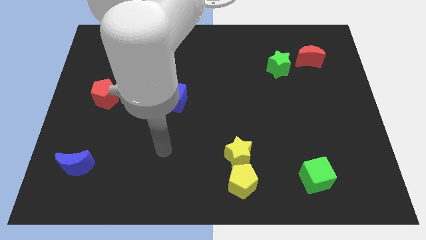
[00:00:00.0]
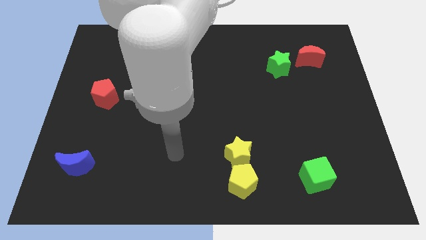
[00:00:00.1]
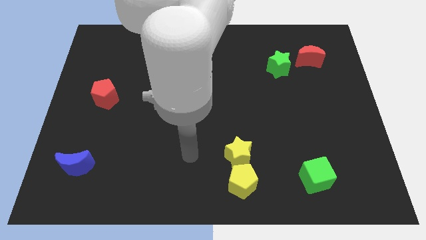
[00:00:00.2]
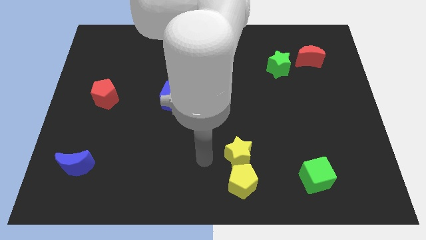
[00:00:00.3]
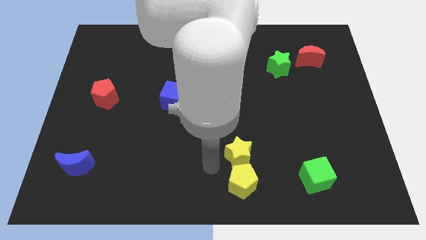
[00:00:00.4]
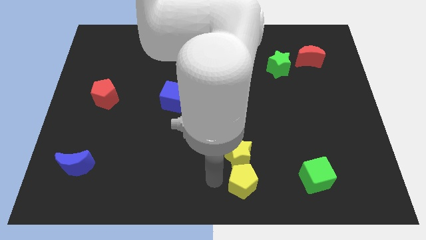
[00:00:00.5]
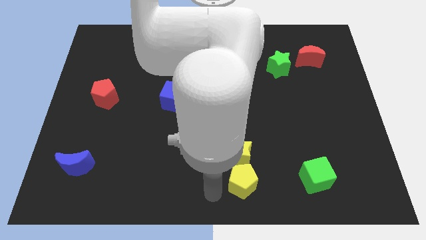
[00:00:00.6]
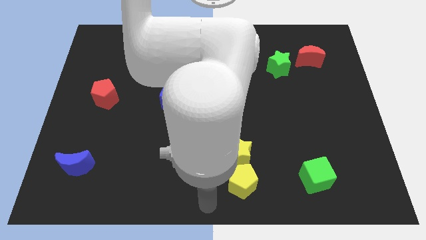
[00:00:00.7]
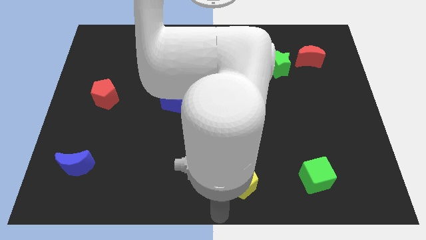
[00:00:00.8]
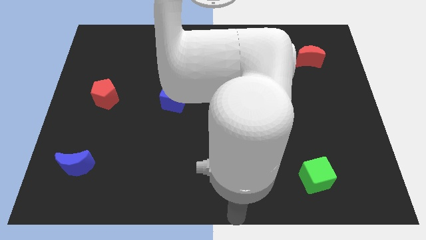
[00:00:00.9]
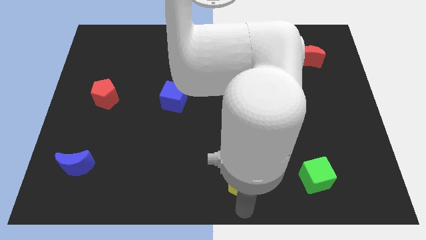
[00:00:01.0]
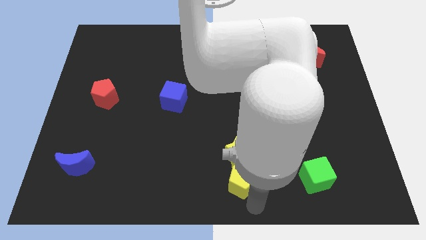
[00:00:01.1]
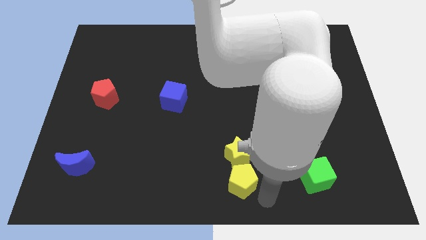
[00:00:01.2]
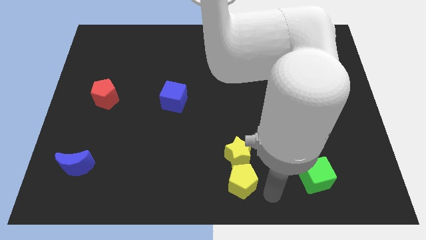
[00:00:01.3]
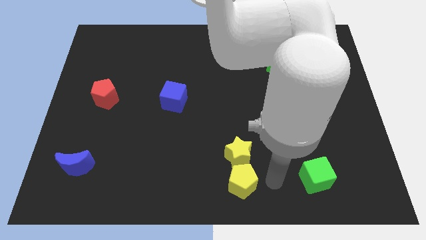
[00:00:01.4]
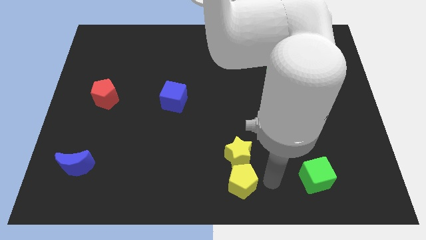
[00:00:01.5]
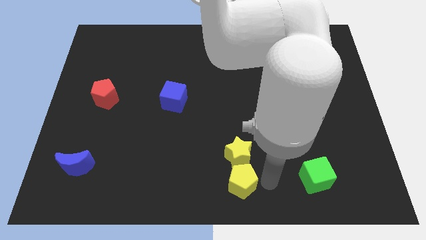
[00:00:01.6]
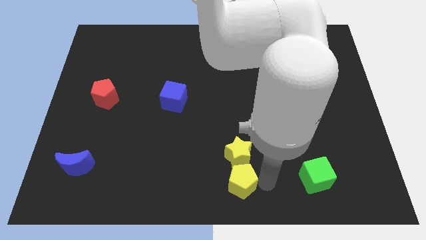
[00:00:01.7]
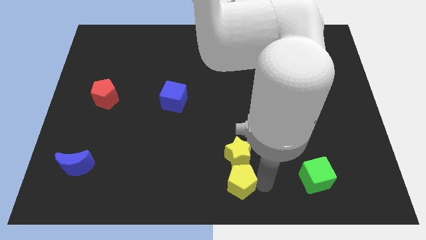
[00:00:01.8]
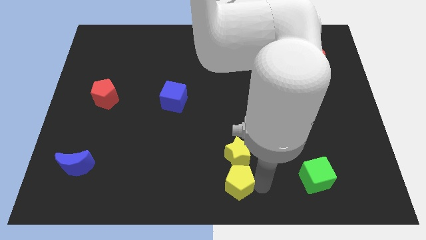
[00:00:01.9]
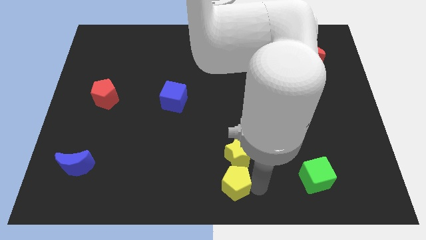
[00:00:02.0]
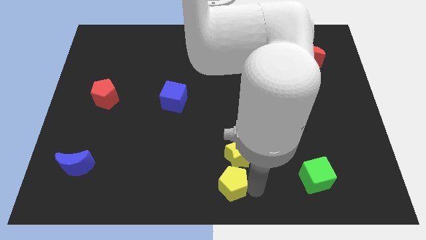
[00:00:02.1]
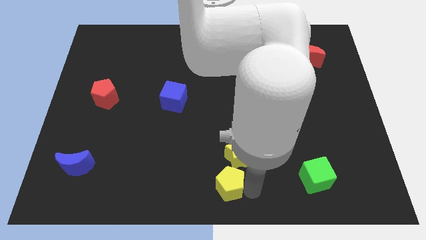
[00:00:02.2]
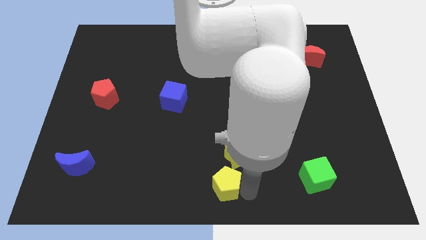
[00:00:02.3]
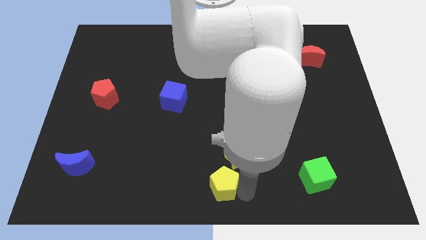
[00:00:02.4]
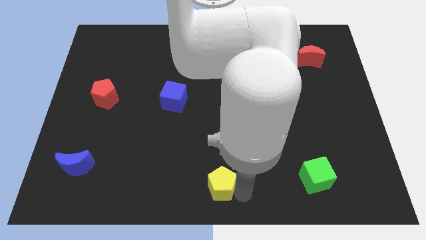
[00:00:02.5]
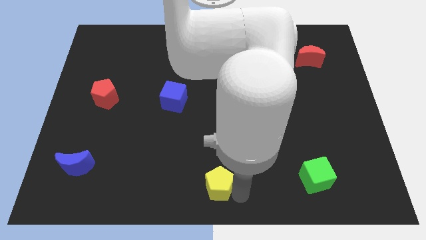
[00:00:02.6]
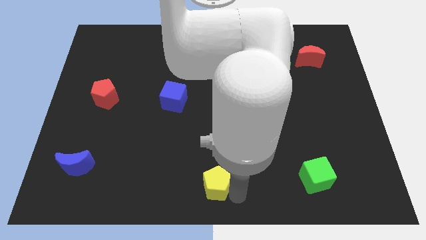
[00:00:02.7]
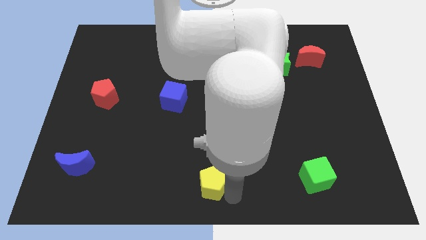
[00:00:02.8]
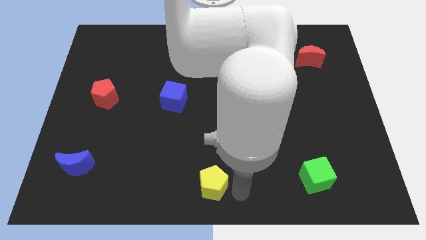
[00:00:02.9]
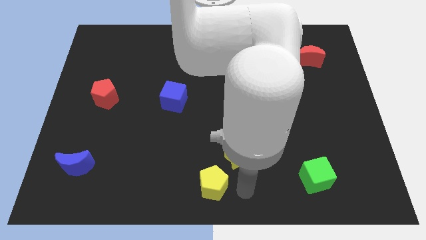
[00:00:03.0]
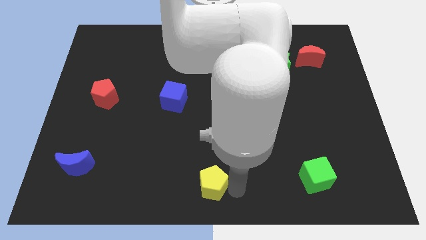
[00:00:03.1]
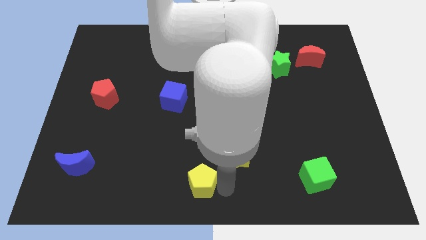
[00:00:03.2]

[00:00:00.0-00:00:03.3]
slightly push the yellow pentagon left

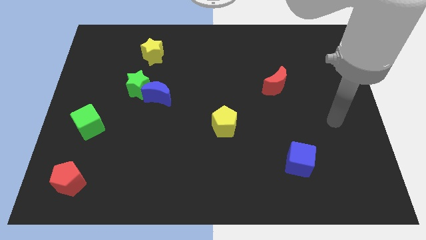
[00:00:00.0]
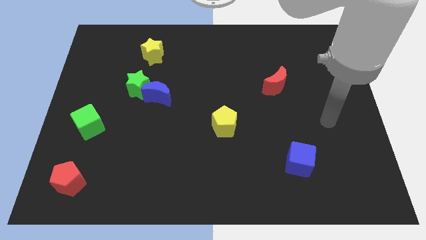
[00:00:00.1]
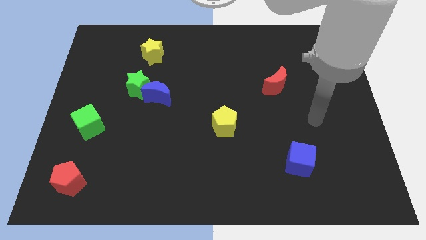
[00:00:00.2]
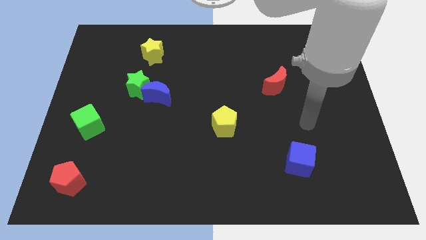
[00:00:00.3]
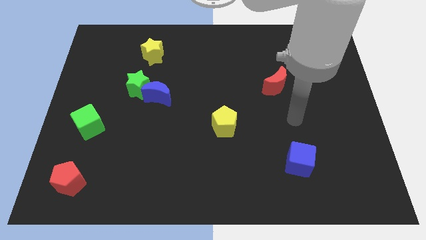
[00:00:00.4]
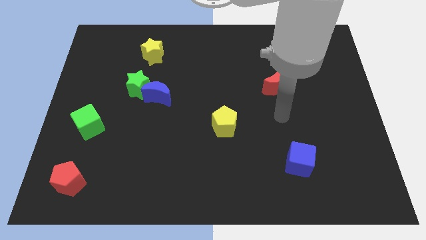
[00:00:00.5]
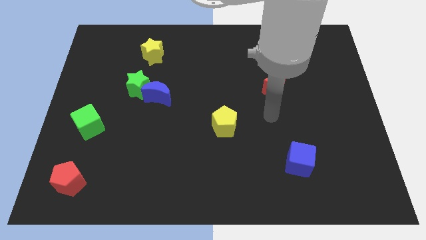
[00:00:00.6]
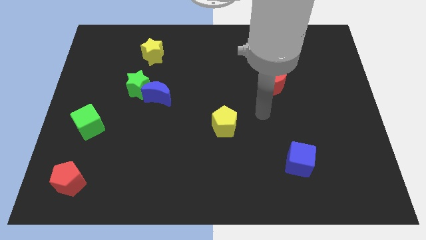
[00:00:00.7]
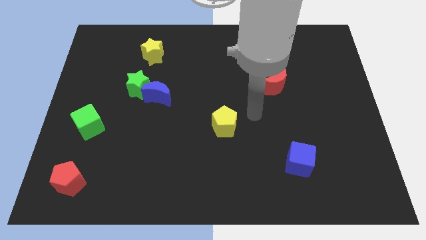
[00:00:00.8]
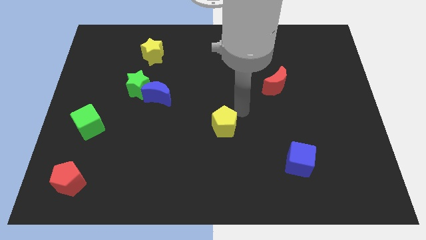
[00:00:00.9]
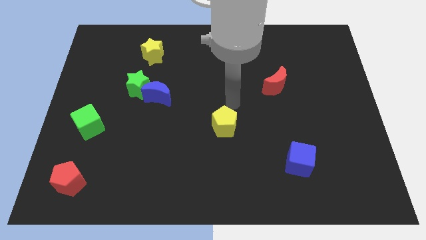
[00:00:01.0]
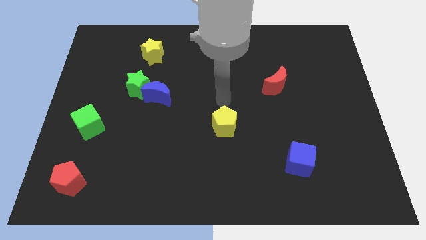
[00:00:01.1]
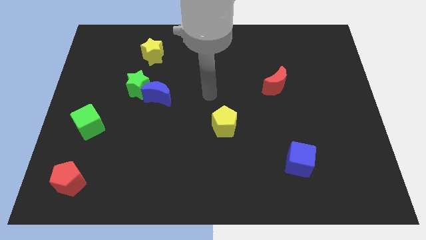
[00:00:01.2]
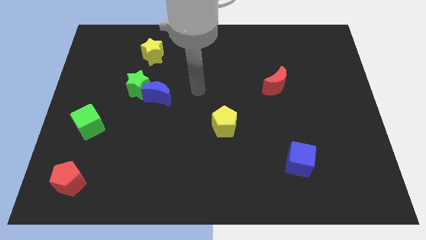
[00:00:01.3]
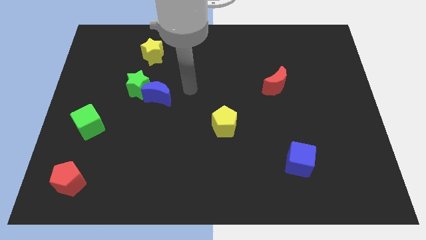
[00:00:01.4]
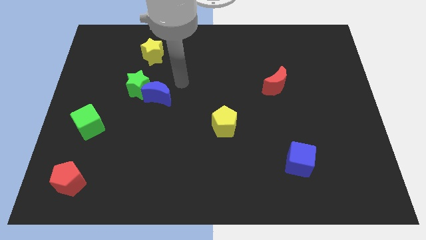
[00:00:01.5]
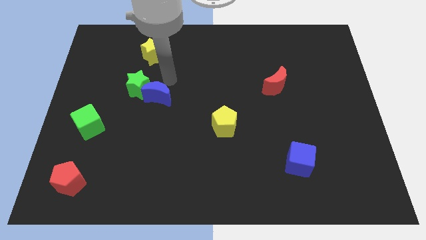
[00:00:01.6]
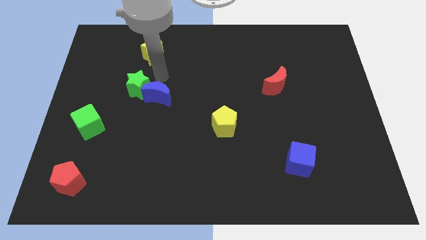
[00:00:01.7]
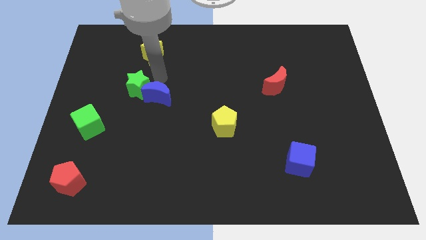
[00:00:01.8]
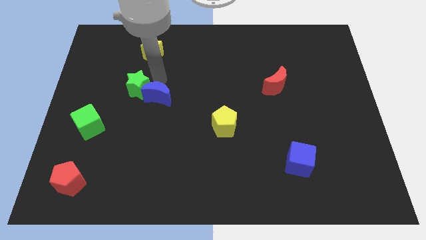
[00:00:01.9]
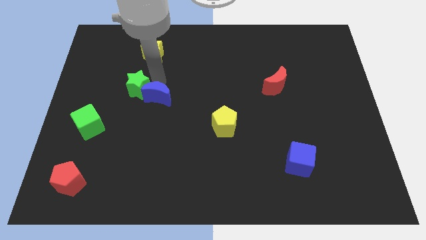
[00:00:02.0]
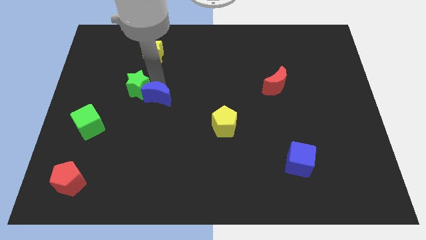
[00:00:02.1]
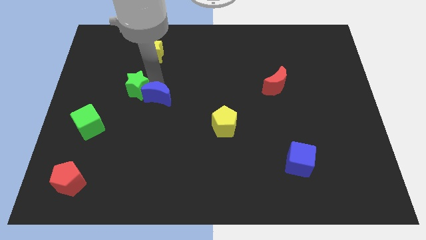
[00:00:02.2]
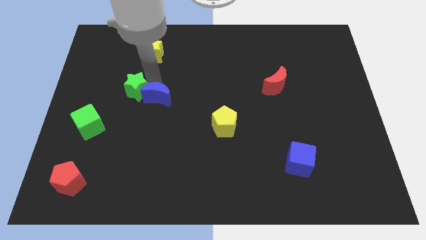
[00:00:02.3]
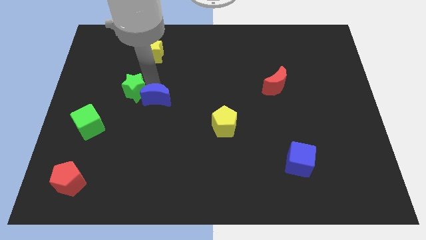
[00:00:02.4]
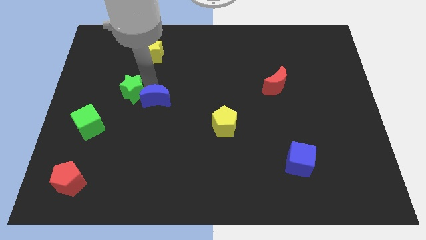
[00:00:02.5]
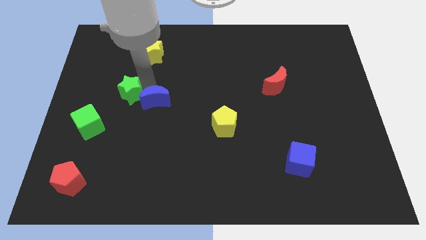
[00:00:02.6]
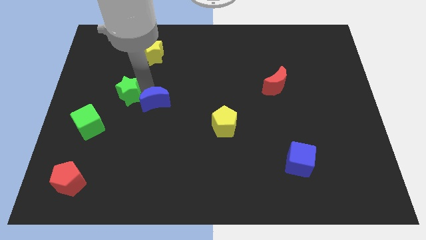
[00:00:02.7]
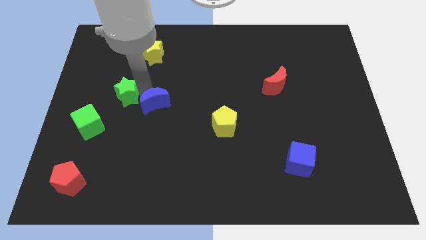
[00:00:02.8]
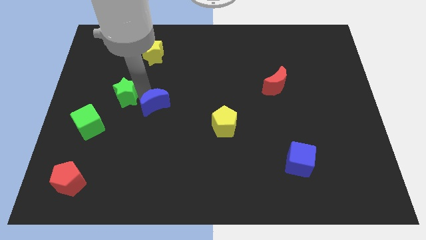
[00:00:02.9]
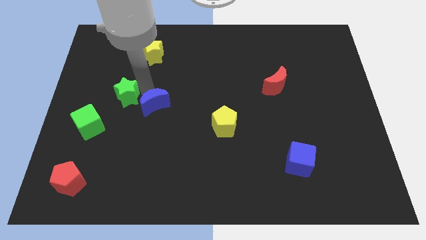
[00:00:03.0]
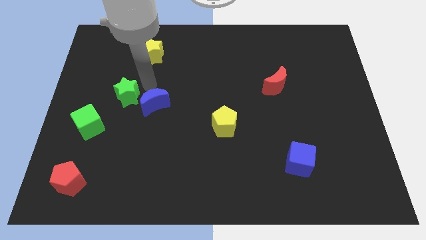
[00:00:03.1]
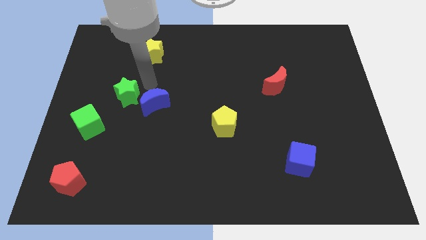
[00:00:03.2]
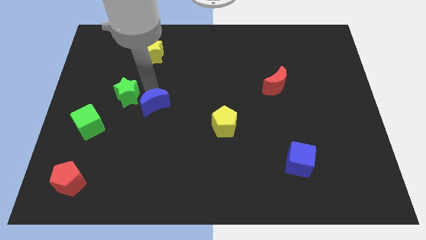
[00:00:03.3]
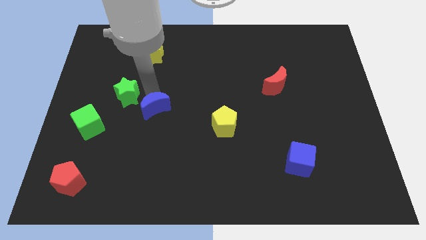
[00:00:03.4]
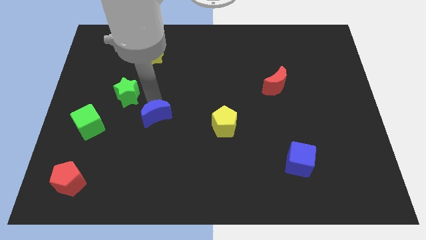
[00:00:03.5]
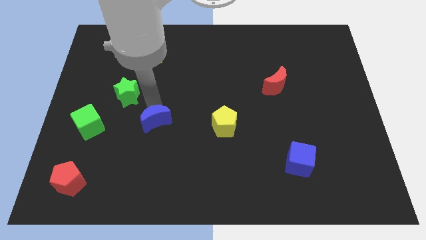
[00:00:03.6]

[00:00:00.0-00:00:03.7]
slide the blue moon down a bit

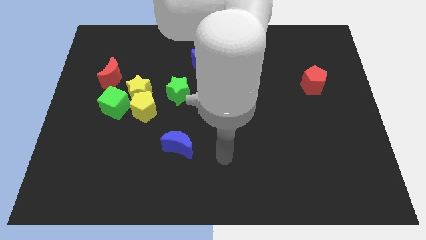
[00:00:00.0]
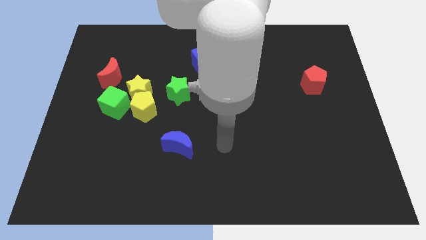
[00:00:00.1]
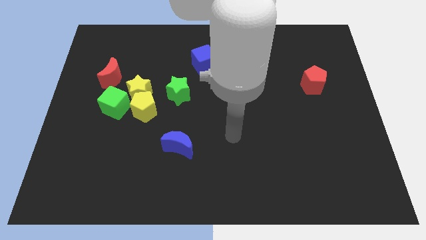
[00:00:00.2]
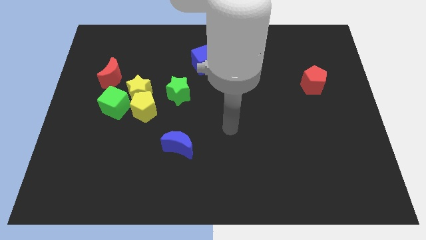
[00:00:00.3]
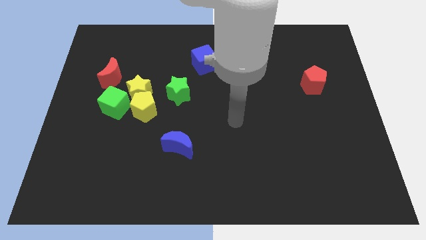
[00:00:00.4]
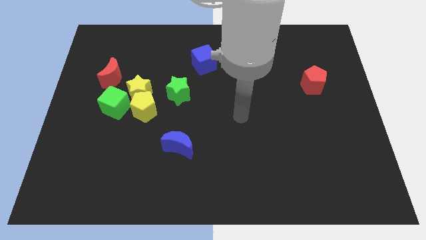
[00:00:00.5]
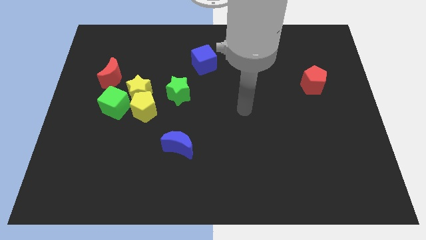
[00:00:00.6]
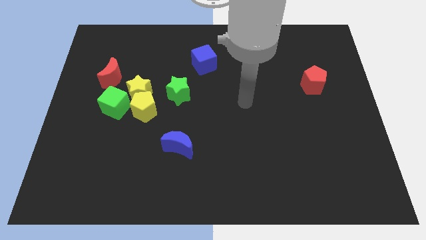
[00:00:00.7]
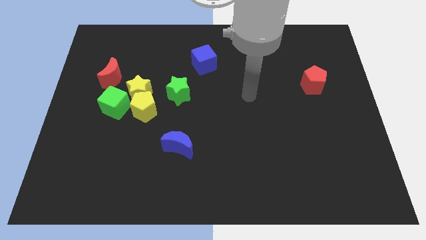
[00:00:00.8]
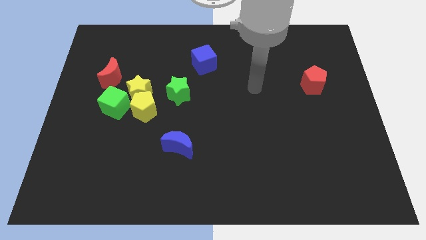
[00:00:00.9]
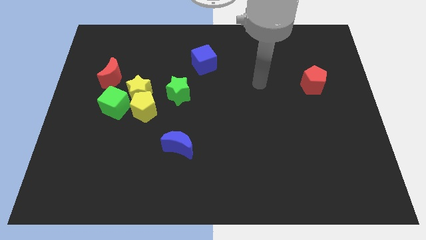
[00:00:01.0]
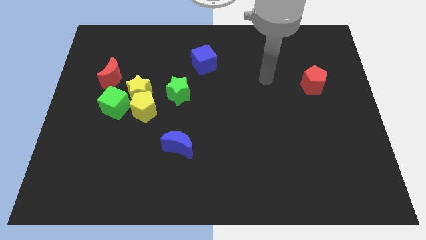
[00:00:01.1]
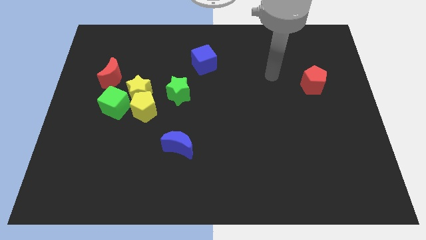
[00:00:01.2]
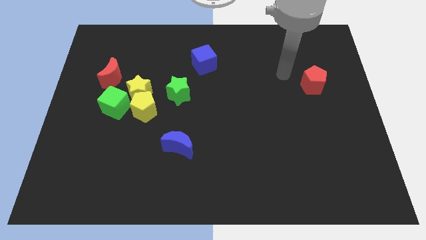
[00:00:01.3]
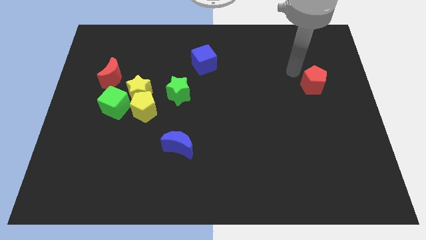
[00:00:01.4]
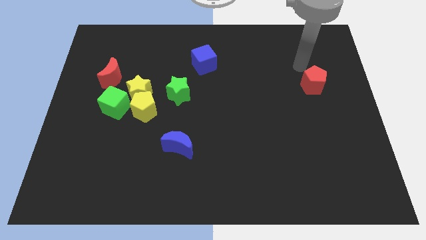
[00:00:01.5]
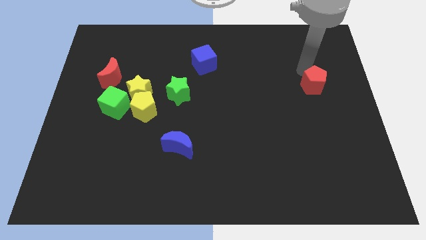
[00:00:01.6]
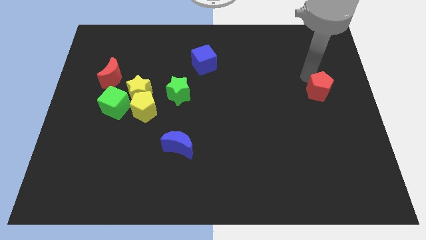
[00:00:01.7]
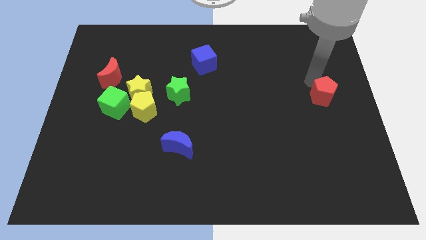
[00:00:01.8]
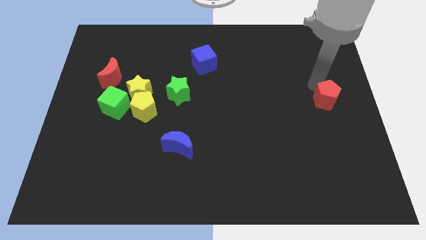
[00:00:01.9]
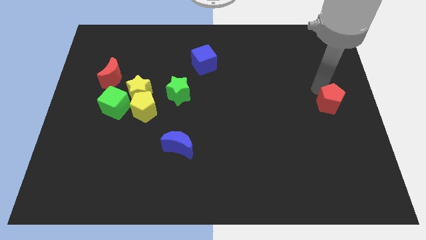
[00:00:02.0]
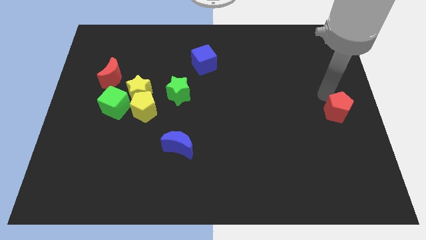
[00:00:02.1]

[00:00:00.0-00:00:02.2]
move the red pentagon slightly down
